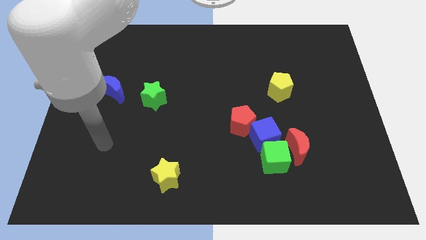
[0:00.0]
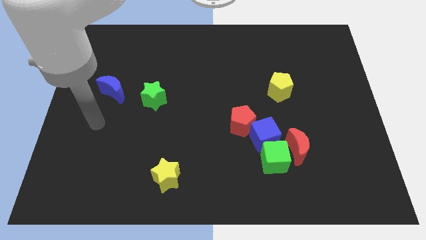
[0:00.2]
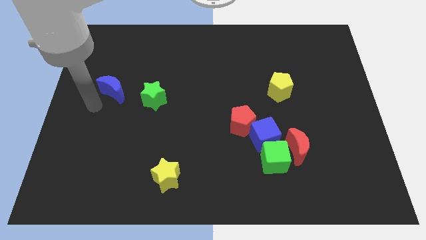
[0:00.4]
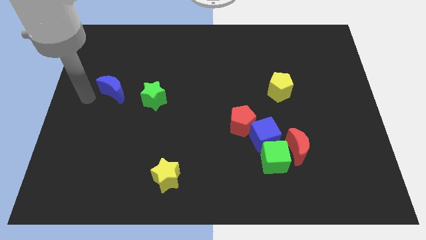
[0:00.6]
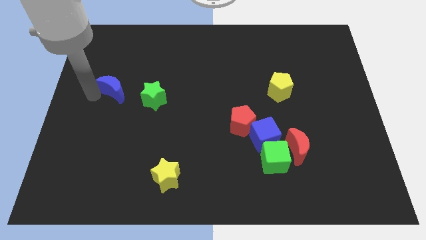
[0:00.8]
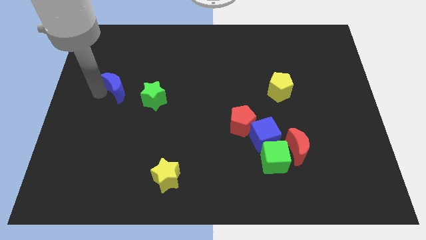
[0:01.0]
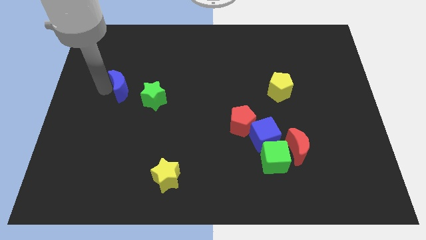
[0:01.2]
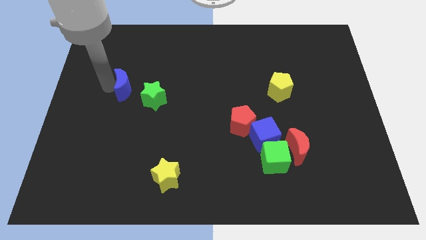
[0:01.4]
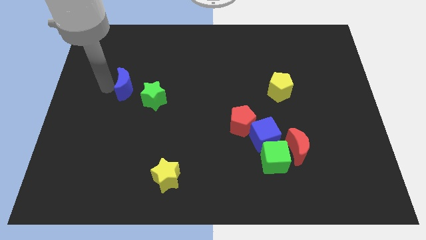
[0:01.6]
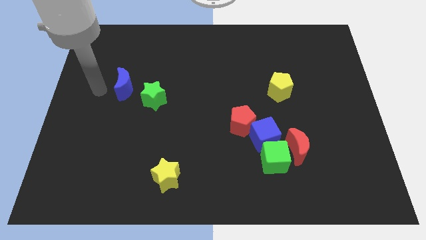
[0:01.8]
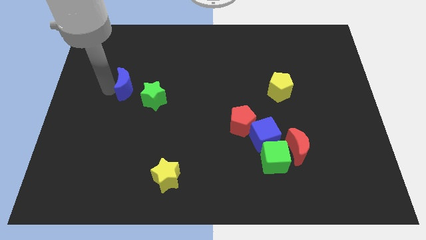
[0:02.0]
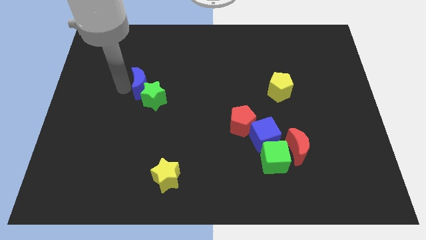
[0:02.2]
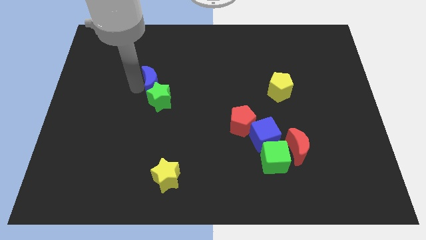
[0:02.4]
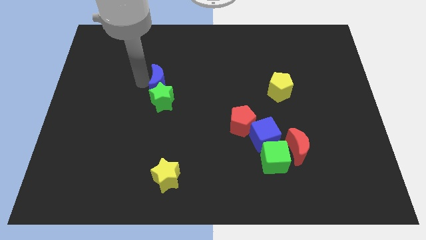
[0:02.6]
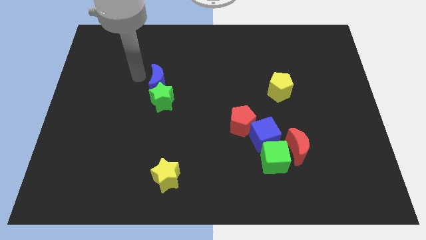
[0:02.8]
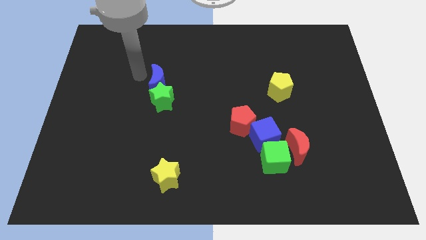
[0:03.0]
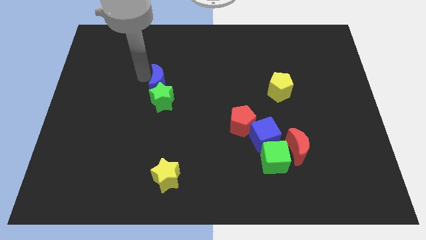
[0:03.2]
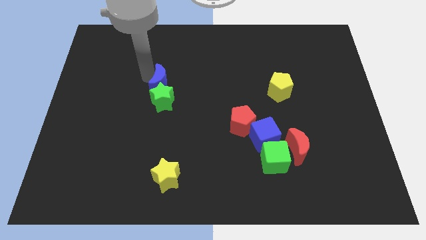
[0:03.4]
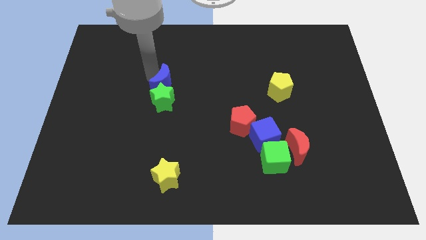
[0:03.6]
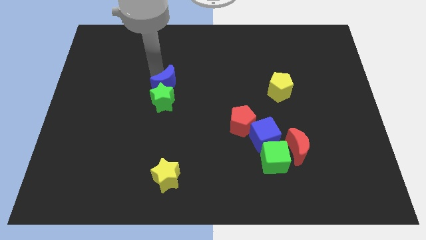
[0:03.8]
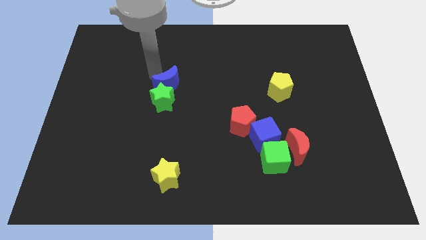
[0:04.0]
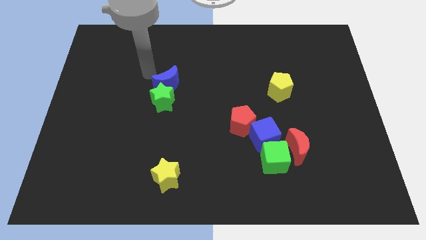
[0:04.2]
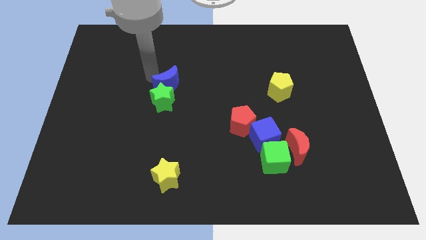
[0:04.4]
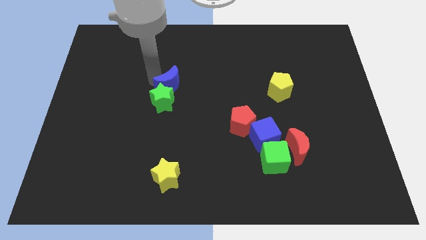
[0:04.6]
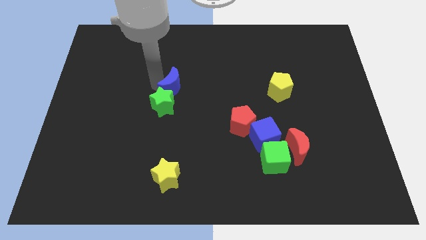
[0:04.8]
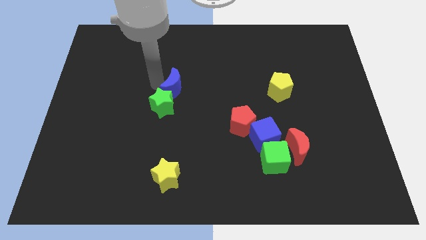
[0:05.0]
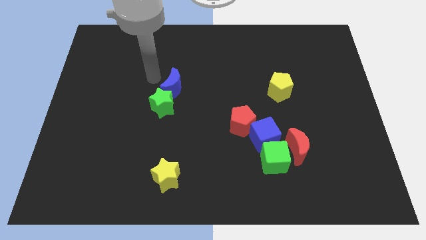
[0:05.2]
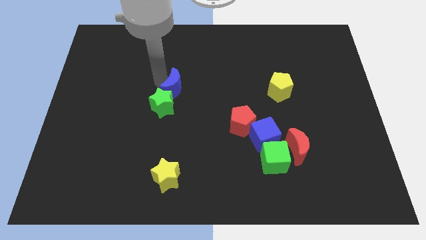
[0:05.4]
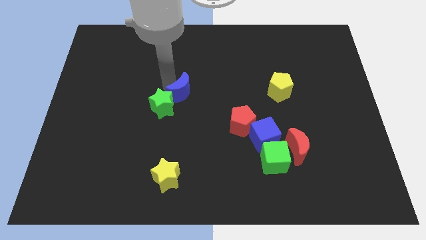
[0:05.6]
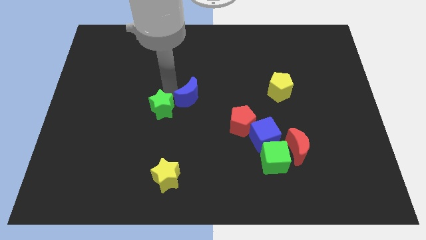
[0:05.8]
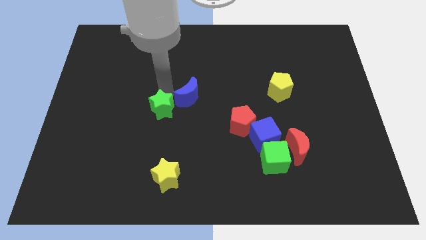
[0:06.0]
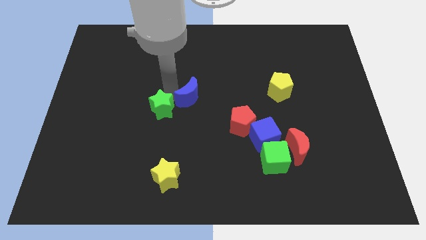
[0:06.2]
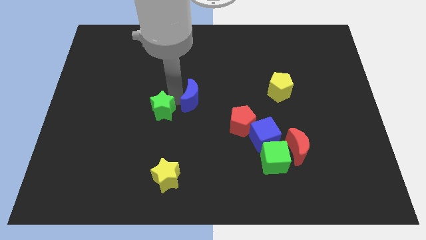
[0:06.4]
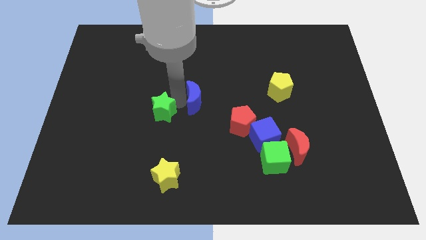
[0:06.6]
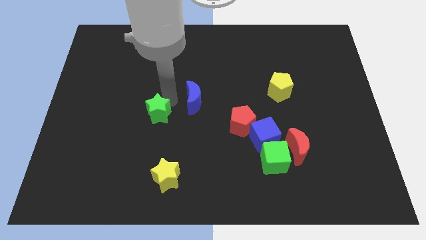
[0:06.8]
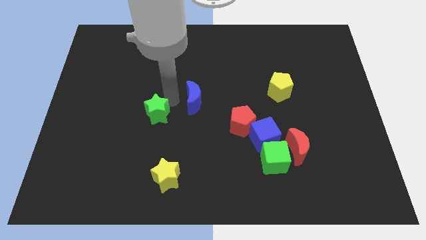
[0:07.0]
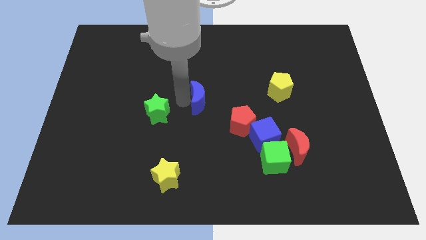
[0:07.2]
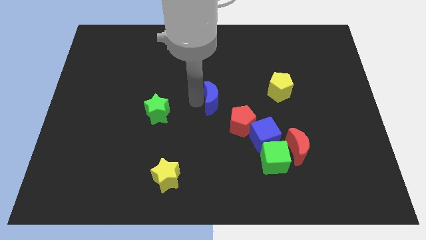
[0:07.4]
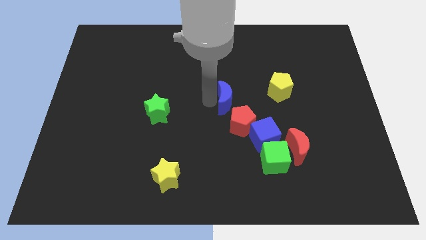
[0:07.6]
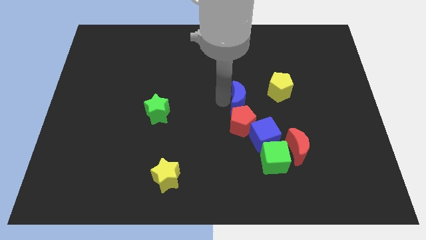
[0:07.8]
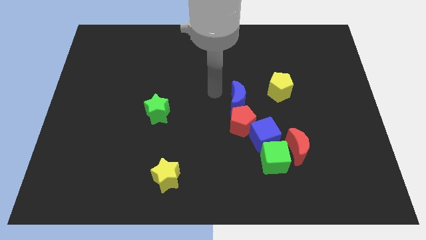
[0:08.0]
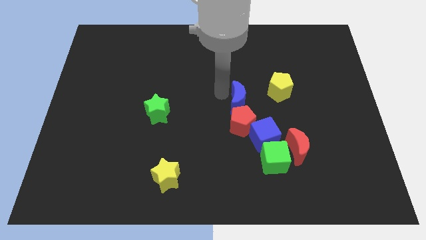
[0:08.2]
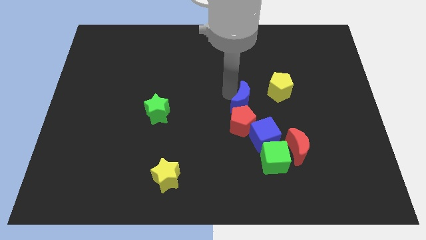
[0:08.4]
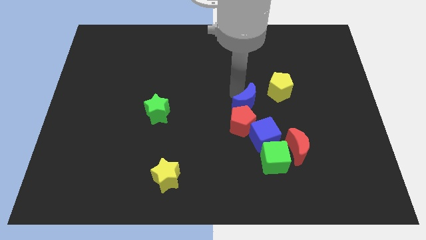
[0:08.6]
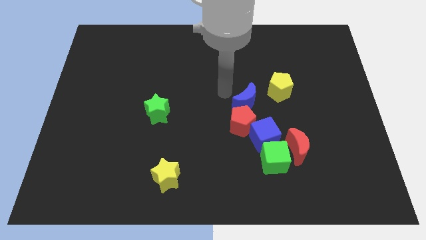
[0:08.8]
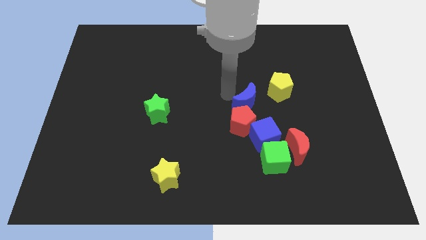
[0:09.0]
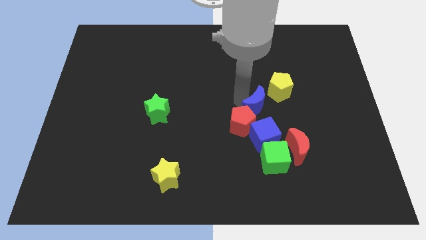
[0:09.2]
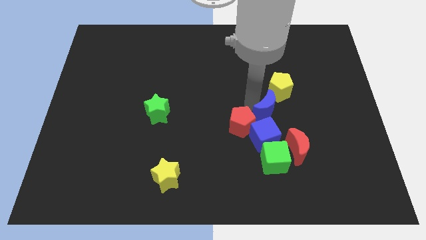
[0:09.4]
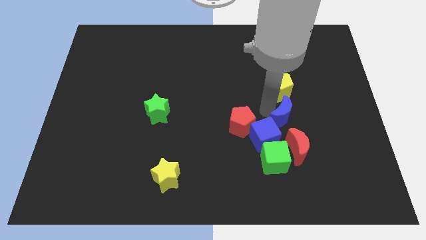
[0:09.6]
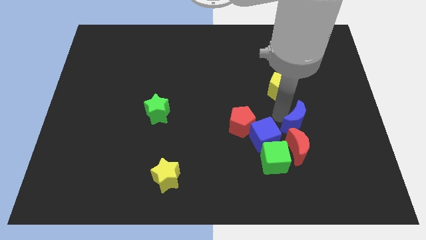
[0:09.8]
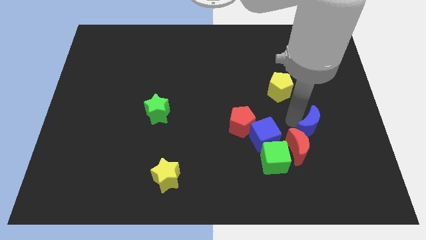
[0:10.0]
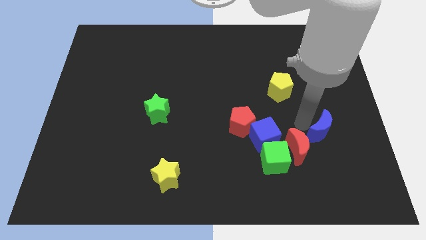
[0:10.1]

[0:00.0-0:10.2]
slide the blue moon to the right of the red moon

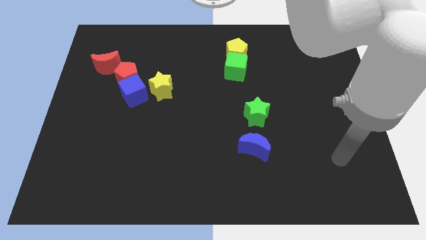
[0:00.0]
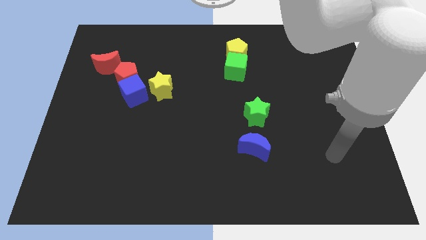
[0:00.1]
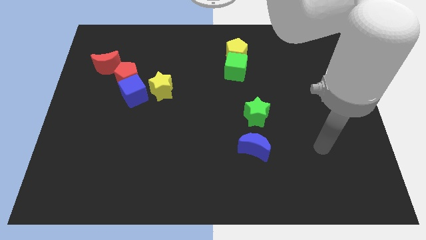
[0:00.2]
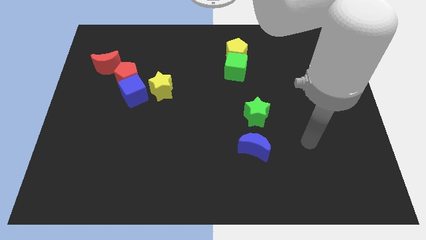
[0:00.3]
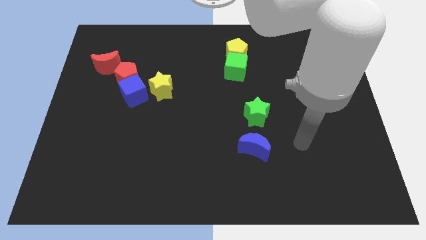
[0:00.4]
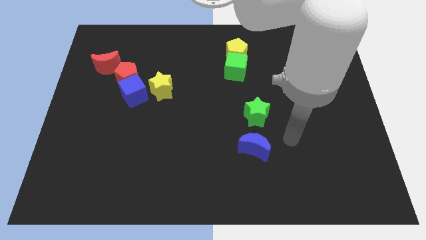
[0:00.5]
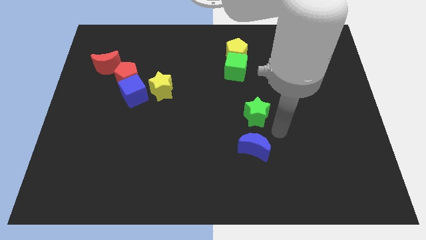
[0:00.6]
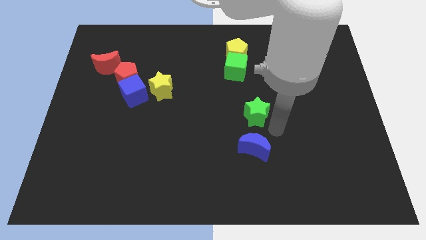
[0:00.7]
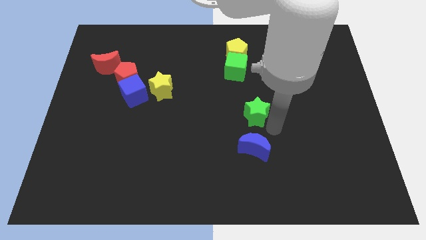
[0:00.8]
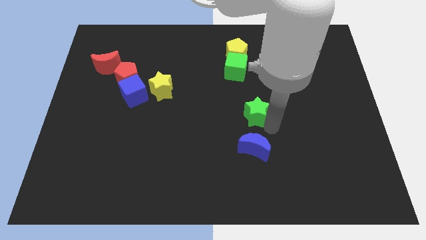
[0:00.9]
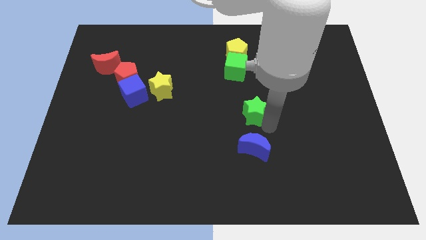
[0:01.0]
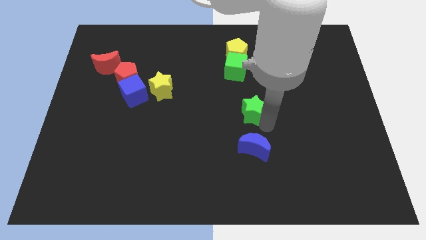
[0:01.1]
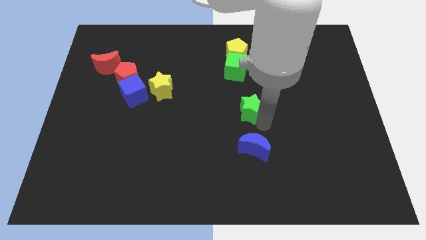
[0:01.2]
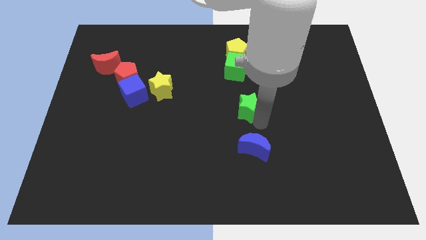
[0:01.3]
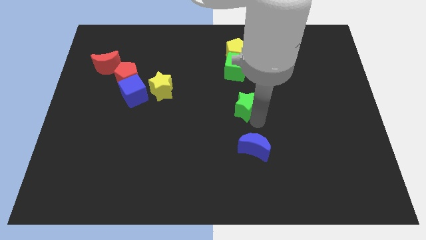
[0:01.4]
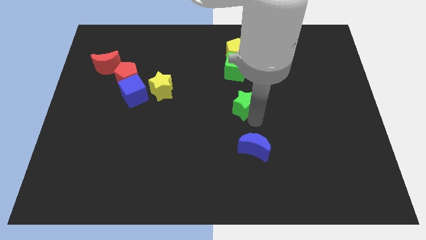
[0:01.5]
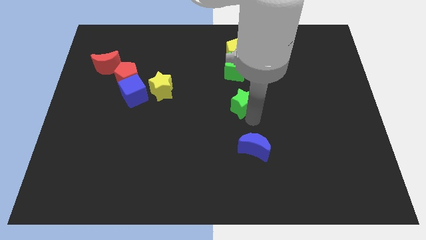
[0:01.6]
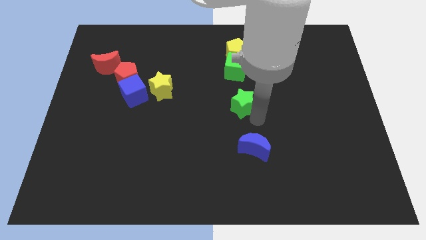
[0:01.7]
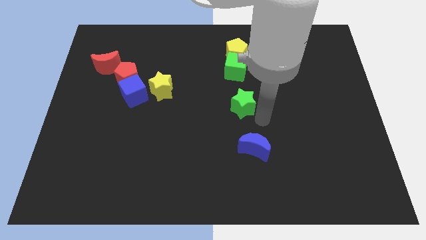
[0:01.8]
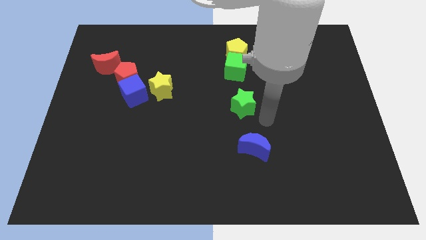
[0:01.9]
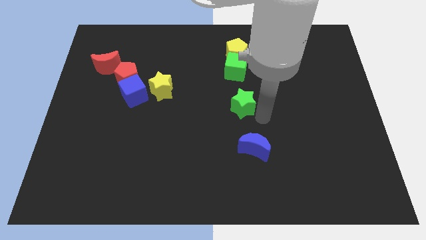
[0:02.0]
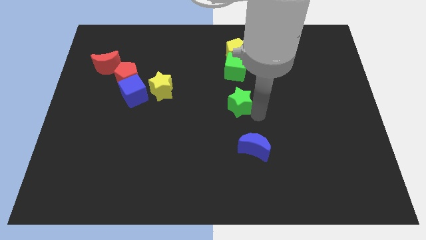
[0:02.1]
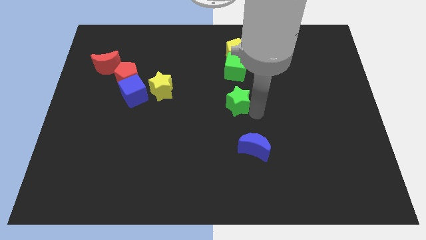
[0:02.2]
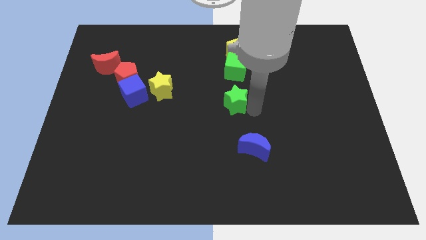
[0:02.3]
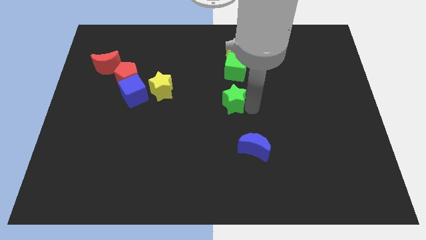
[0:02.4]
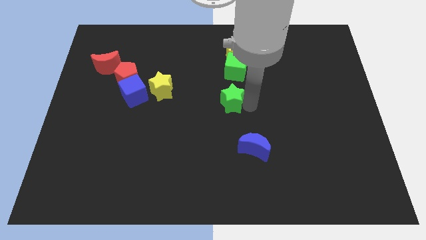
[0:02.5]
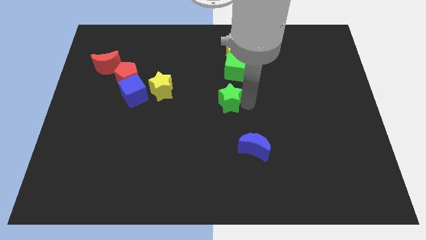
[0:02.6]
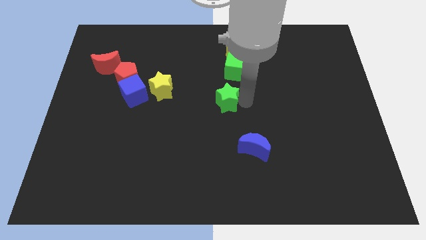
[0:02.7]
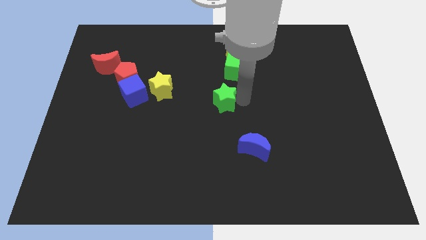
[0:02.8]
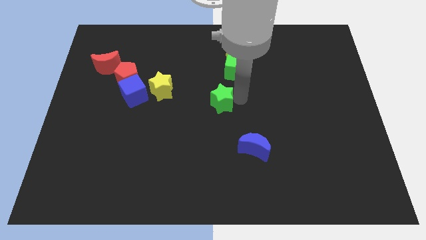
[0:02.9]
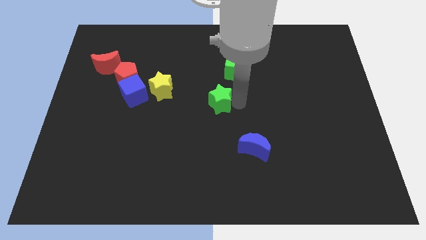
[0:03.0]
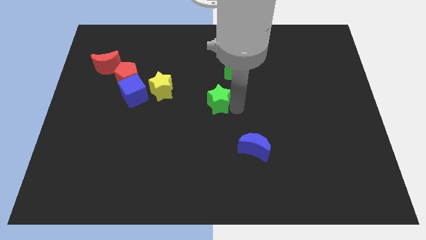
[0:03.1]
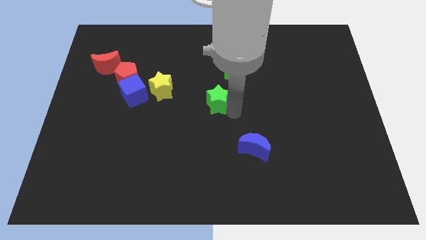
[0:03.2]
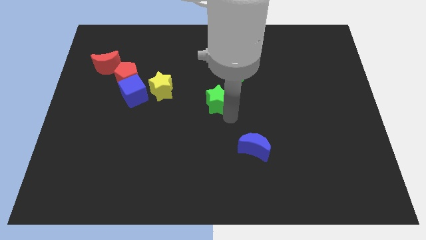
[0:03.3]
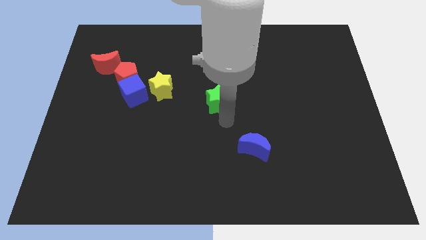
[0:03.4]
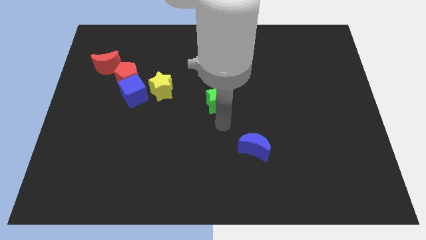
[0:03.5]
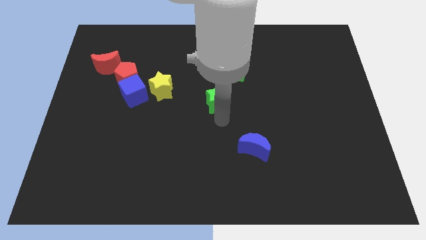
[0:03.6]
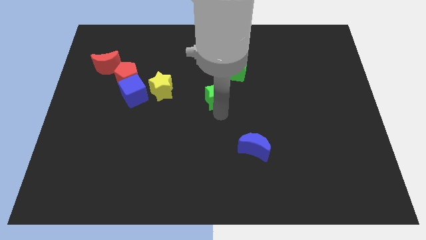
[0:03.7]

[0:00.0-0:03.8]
move the green star to the bottom left of the green cube
